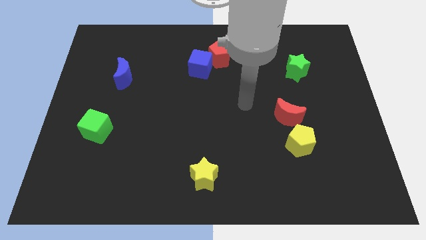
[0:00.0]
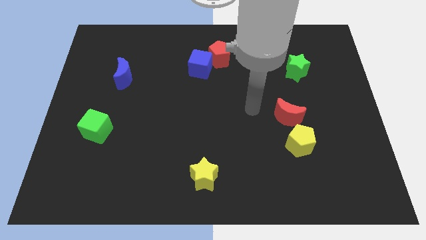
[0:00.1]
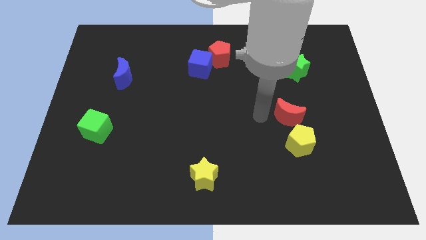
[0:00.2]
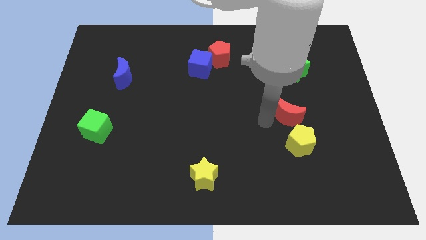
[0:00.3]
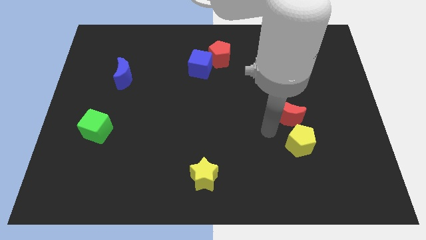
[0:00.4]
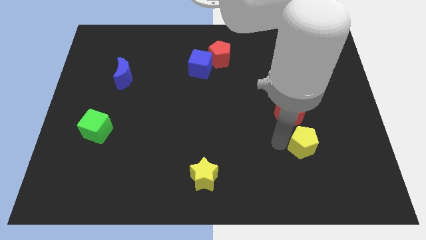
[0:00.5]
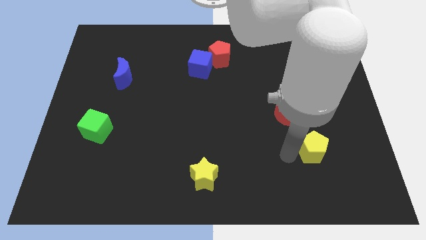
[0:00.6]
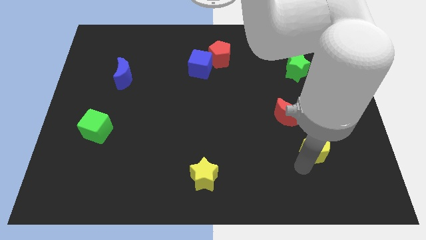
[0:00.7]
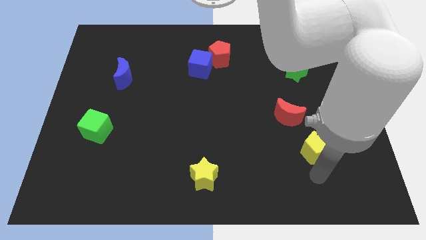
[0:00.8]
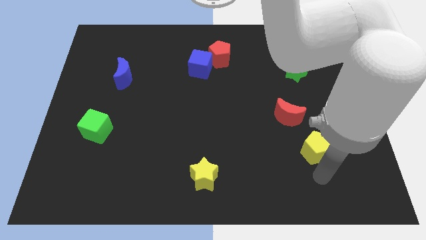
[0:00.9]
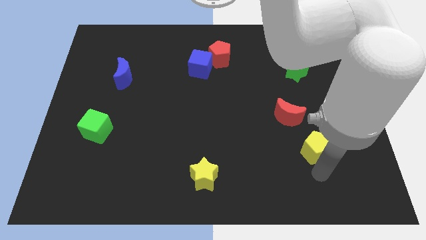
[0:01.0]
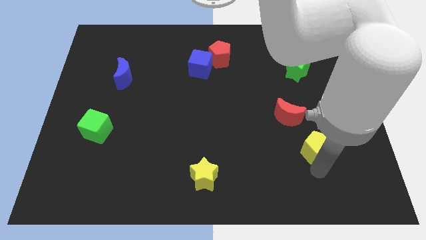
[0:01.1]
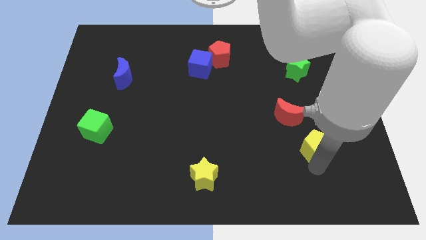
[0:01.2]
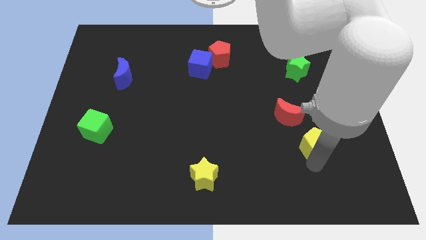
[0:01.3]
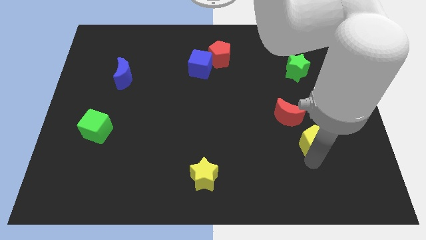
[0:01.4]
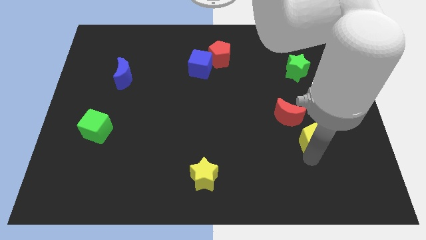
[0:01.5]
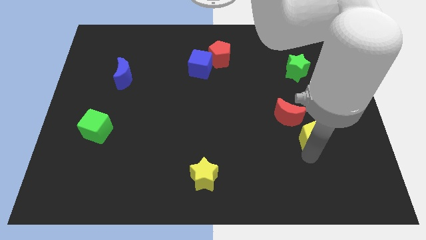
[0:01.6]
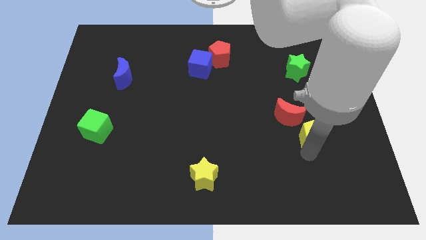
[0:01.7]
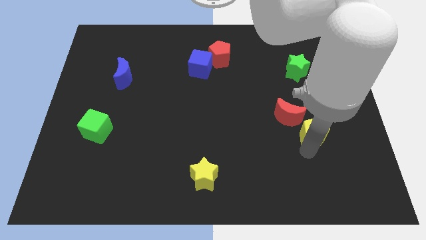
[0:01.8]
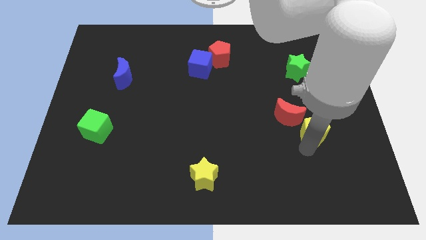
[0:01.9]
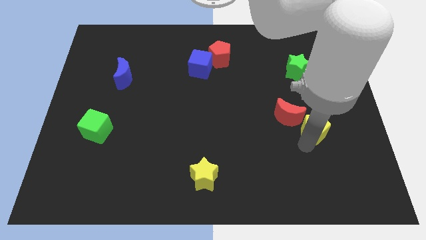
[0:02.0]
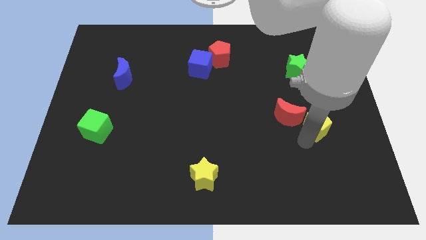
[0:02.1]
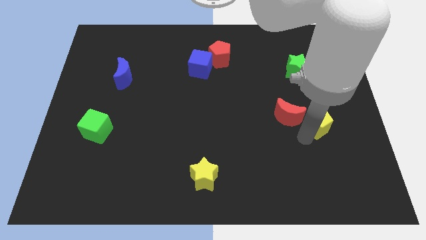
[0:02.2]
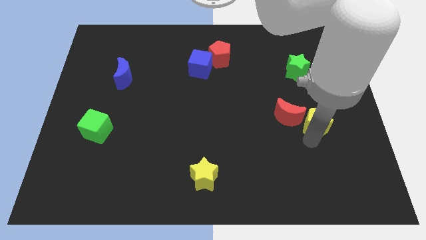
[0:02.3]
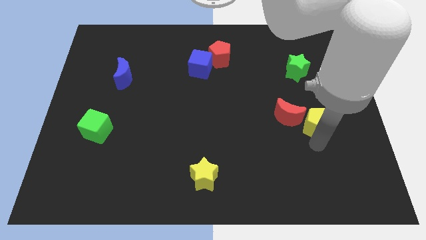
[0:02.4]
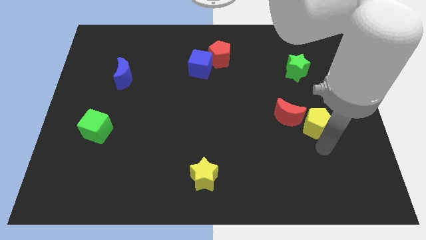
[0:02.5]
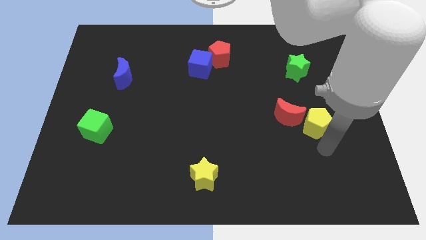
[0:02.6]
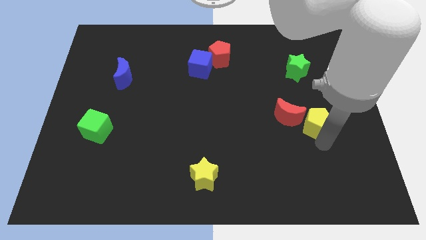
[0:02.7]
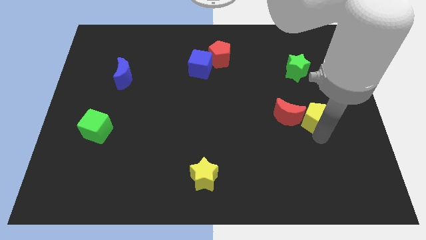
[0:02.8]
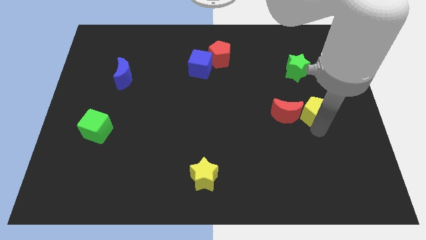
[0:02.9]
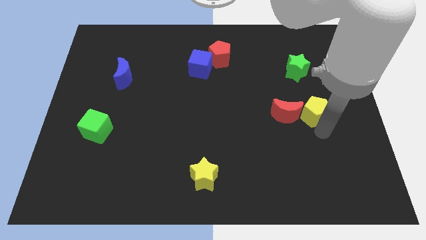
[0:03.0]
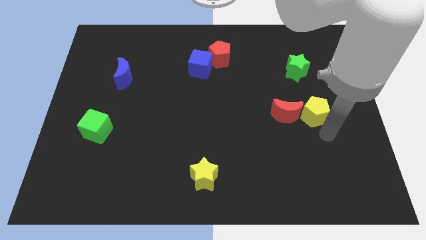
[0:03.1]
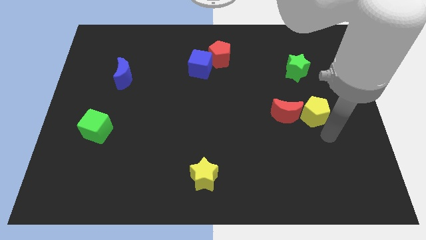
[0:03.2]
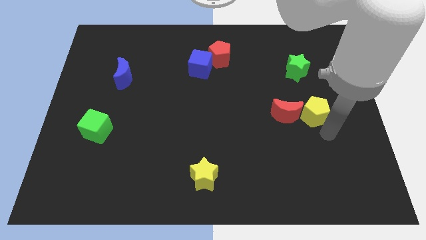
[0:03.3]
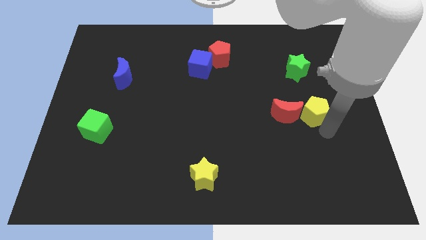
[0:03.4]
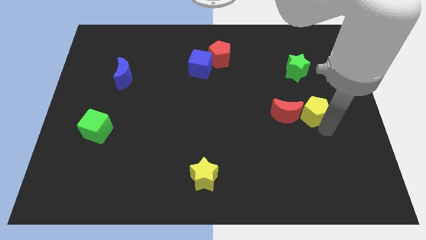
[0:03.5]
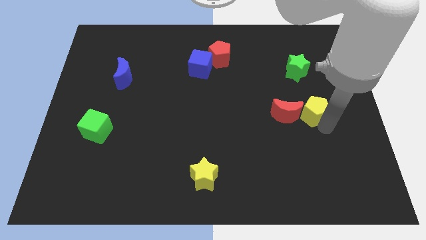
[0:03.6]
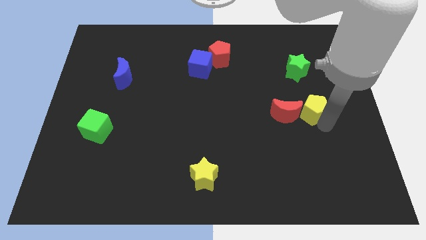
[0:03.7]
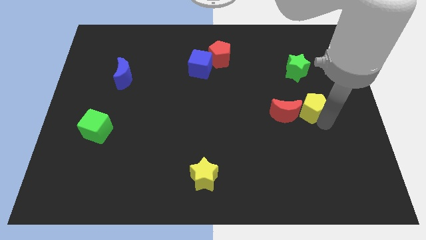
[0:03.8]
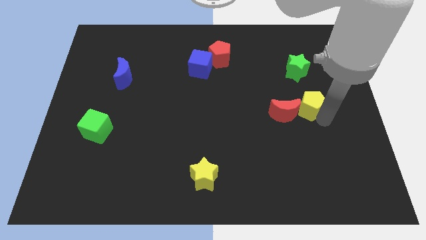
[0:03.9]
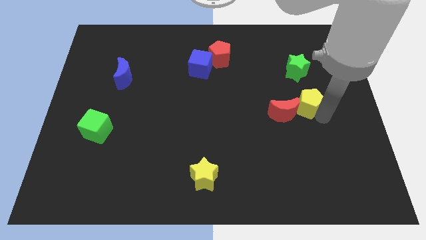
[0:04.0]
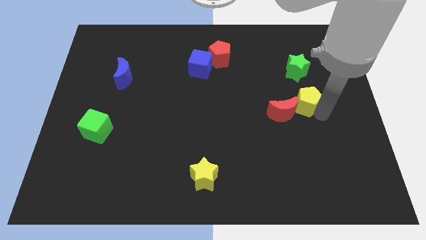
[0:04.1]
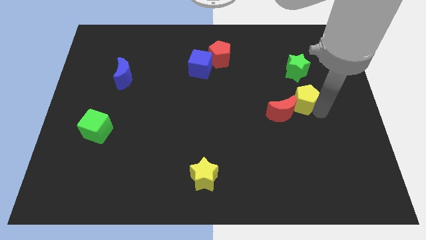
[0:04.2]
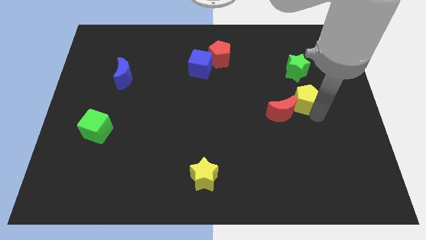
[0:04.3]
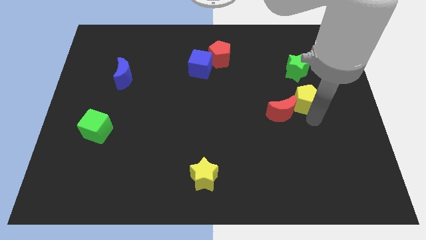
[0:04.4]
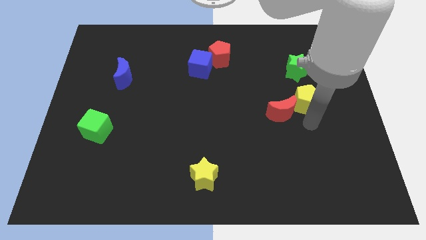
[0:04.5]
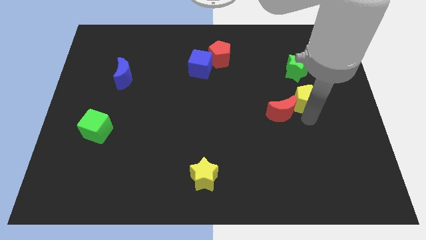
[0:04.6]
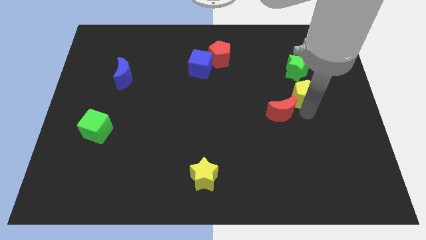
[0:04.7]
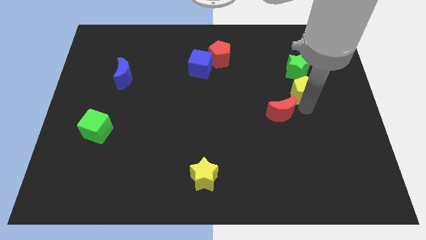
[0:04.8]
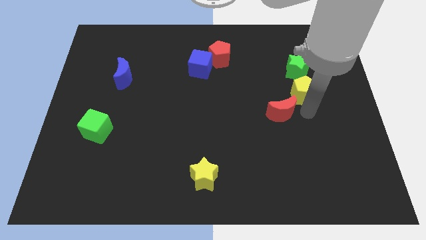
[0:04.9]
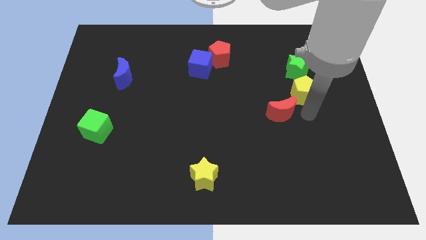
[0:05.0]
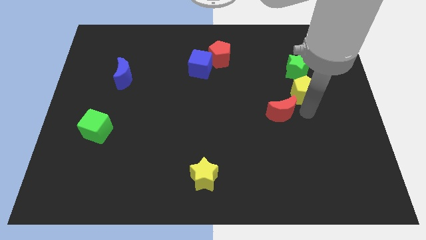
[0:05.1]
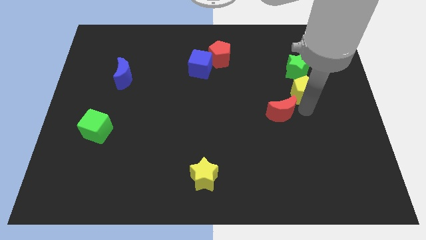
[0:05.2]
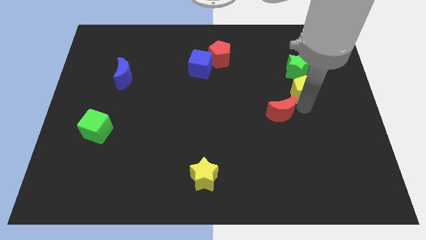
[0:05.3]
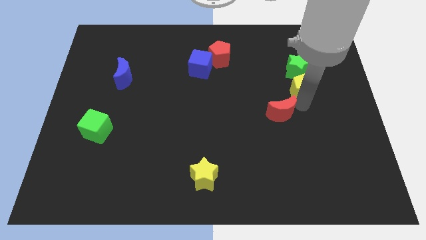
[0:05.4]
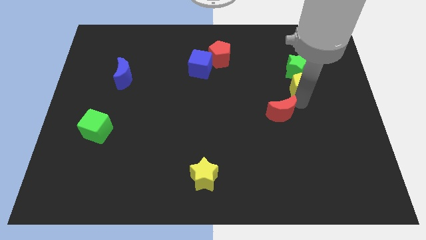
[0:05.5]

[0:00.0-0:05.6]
slide the yellow pentagon towards the green star

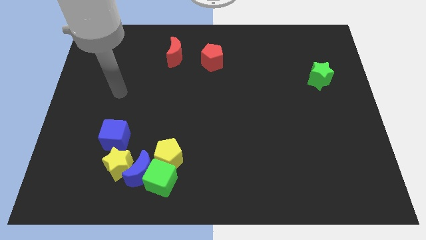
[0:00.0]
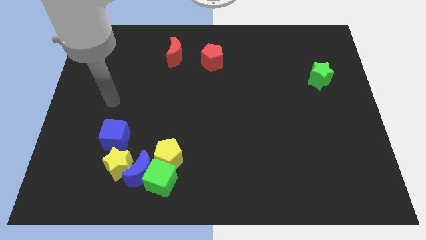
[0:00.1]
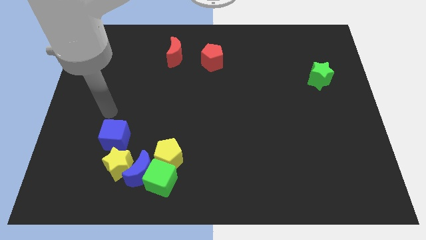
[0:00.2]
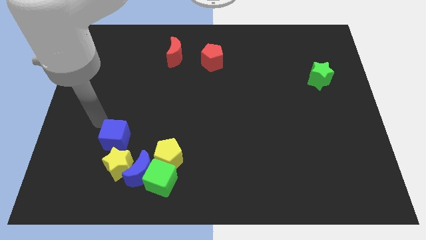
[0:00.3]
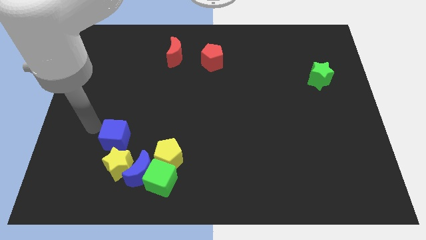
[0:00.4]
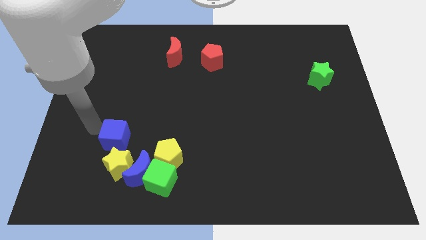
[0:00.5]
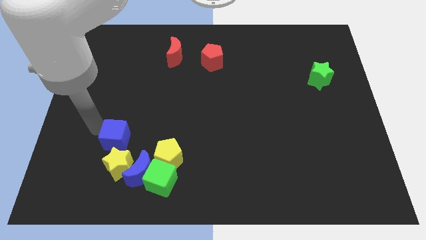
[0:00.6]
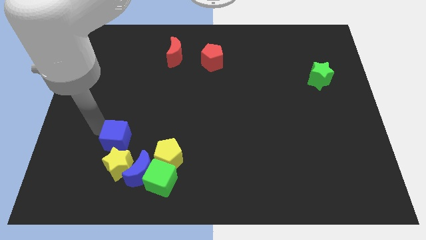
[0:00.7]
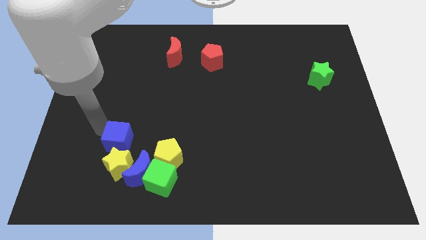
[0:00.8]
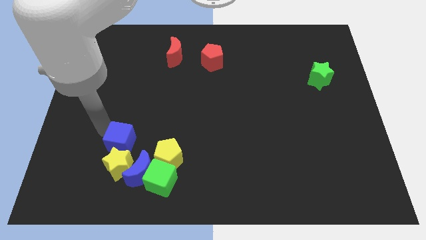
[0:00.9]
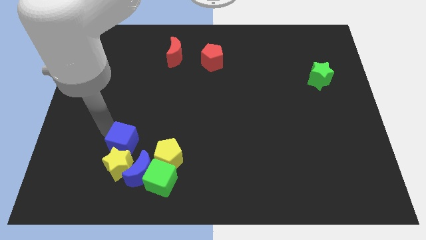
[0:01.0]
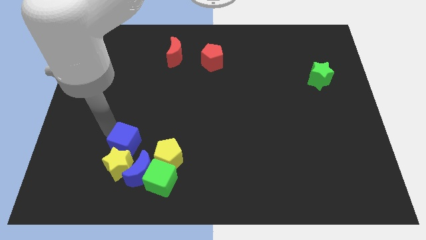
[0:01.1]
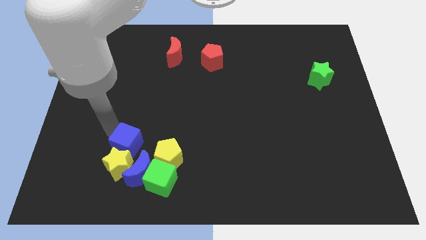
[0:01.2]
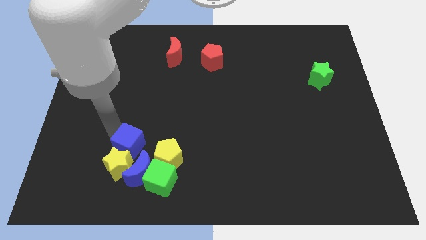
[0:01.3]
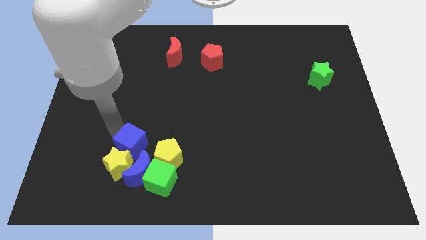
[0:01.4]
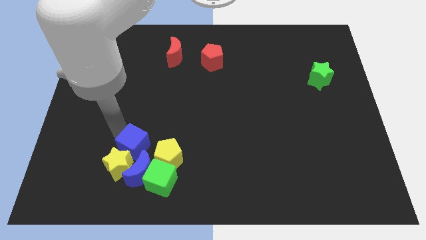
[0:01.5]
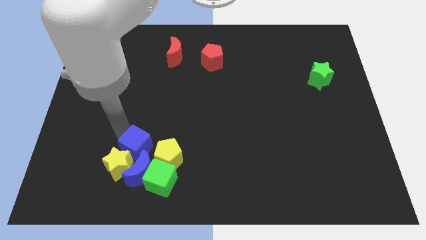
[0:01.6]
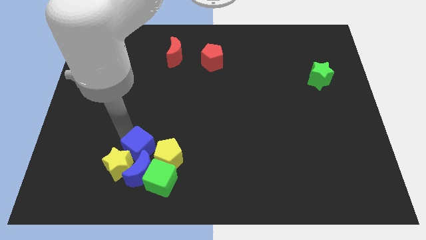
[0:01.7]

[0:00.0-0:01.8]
slide the blue cube close to the blue moon
